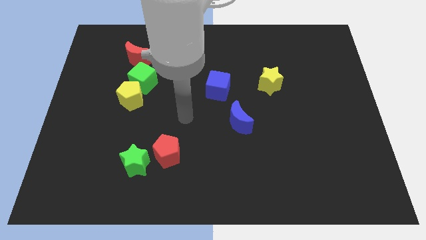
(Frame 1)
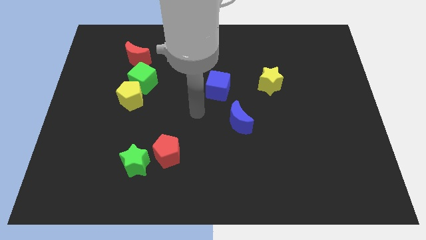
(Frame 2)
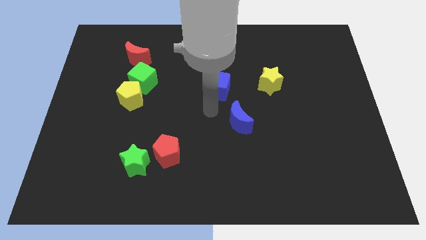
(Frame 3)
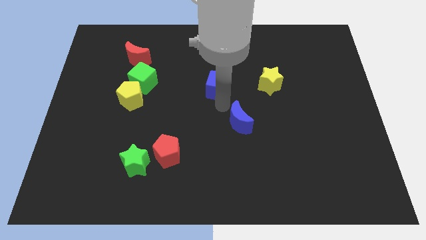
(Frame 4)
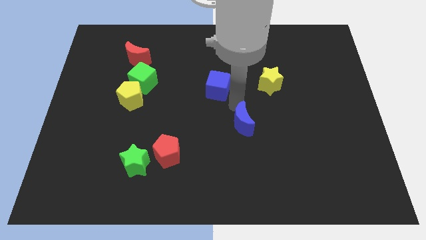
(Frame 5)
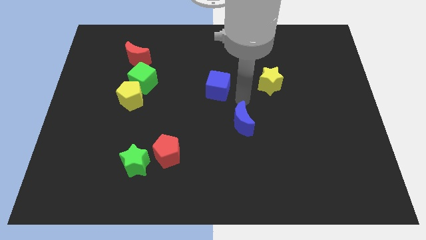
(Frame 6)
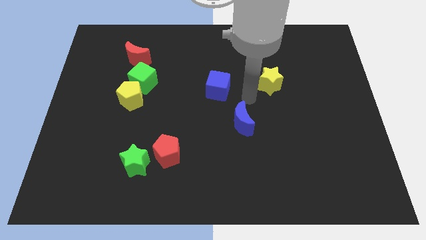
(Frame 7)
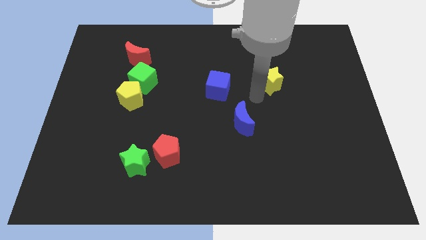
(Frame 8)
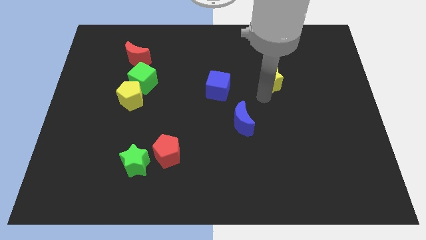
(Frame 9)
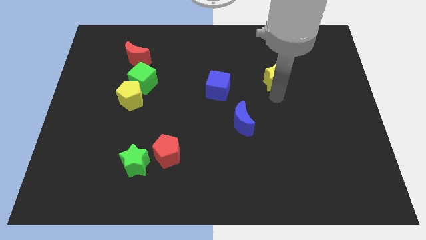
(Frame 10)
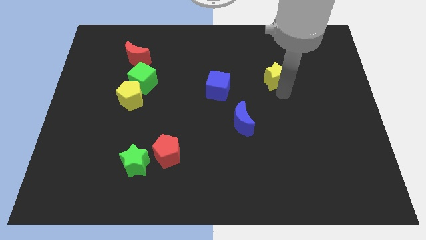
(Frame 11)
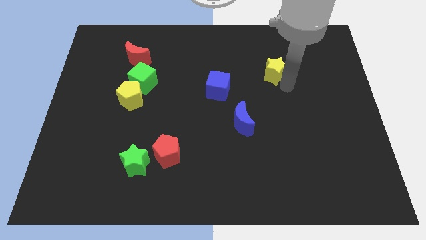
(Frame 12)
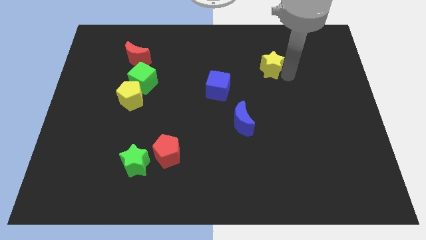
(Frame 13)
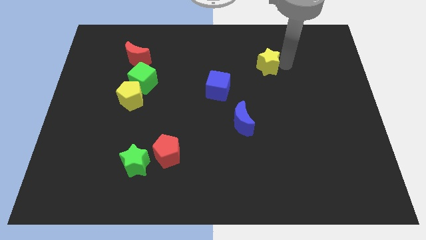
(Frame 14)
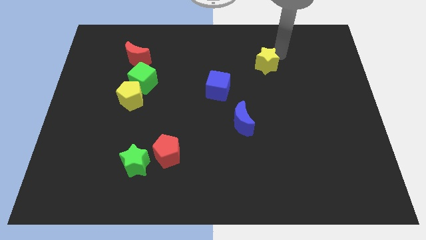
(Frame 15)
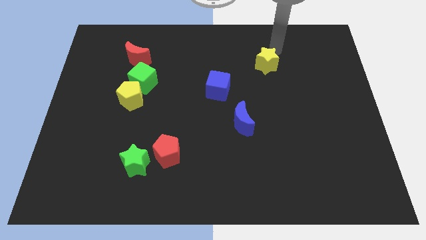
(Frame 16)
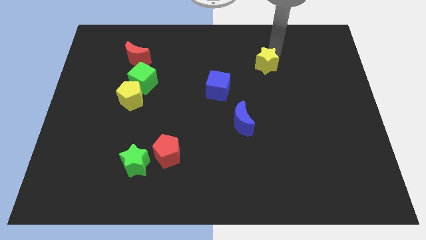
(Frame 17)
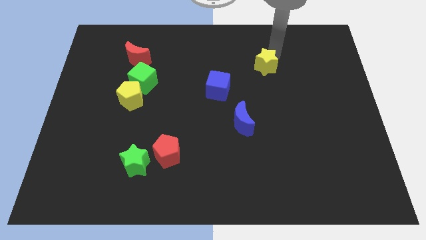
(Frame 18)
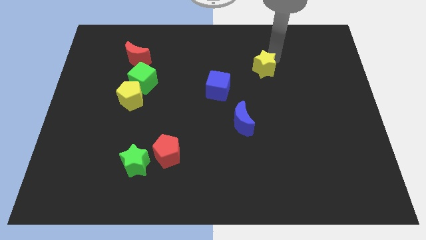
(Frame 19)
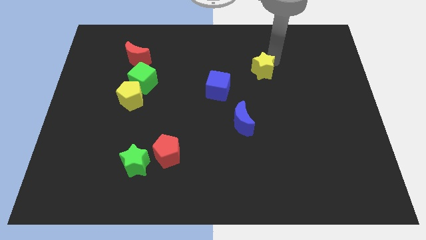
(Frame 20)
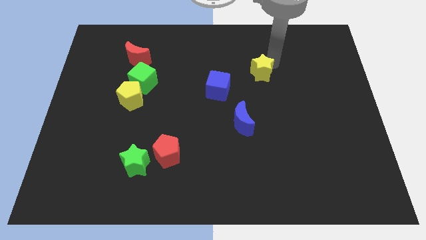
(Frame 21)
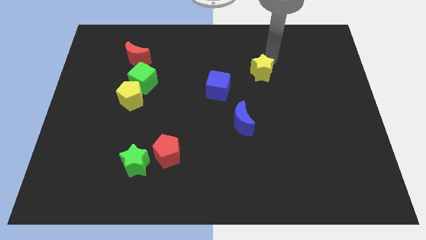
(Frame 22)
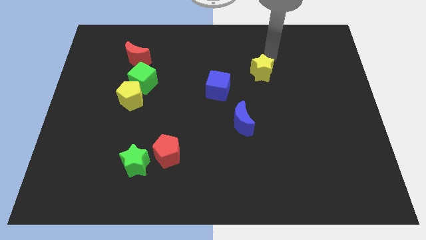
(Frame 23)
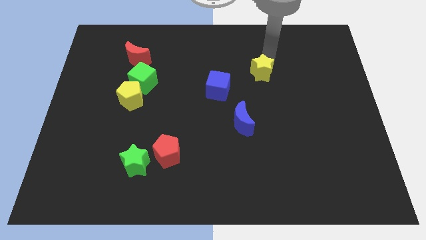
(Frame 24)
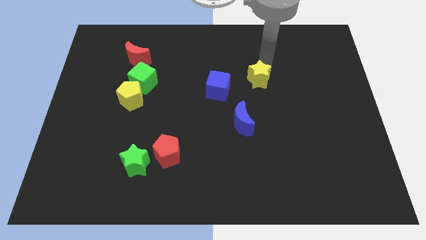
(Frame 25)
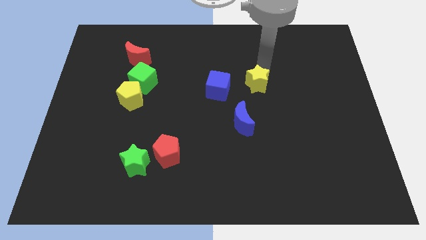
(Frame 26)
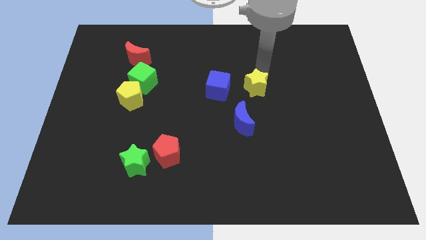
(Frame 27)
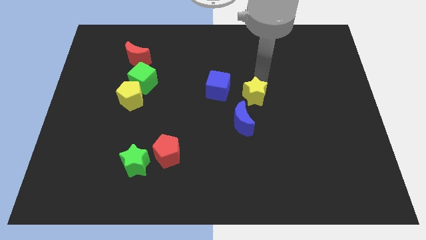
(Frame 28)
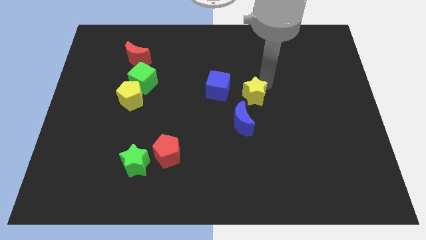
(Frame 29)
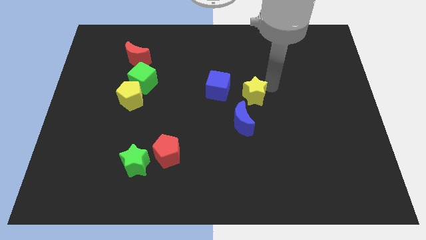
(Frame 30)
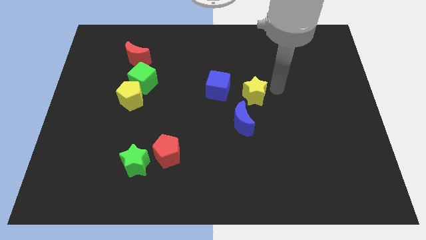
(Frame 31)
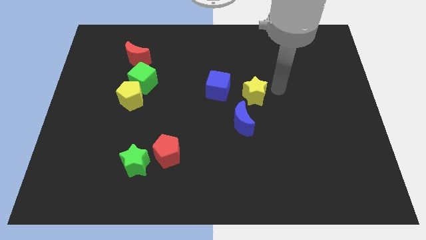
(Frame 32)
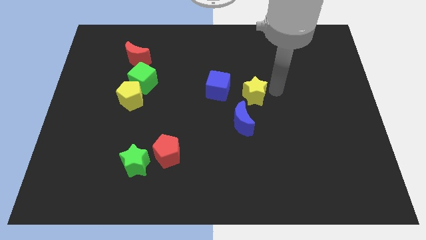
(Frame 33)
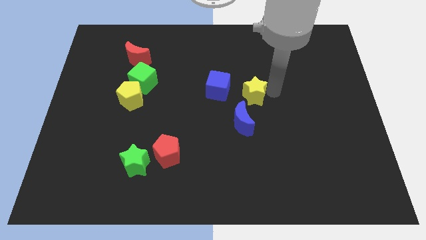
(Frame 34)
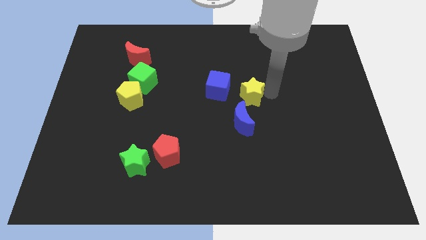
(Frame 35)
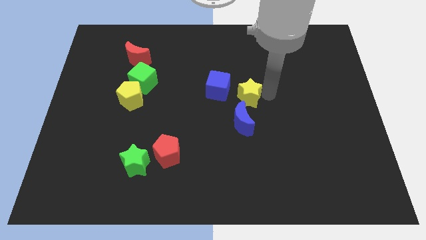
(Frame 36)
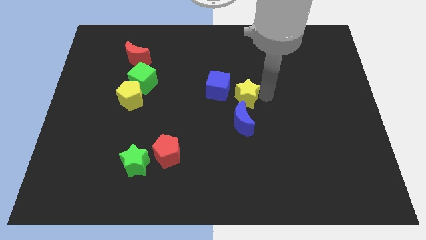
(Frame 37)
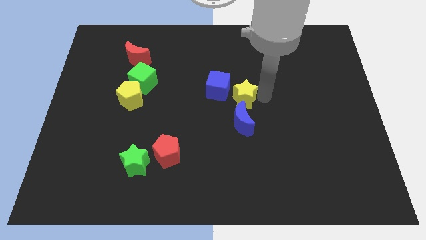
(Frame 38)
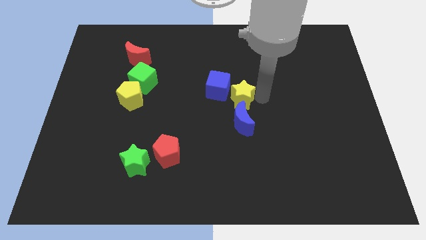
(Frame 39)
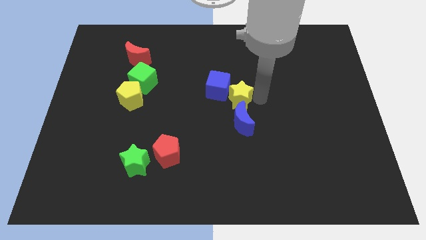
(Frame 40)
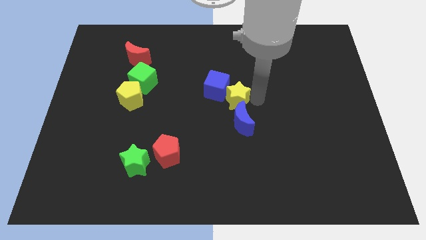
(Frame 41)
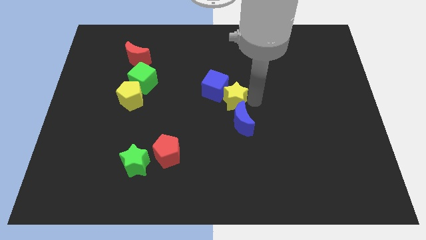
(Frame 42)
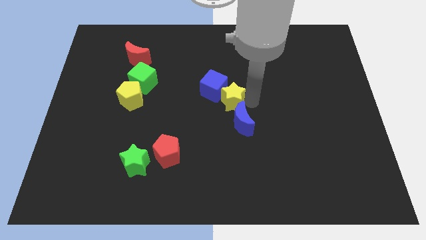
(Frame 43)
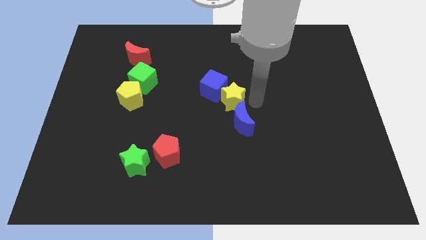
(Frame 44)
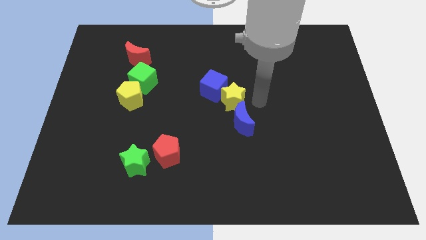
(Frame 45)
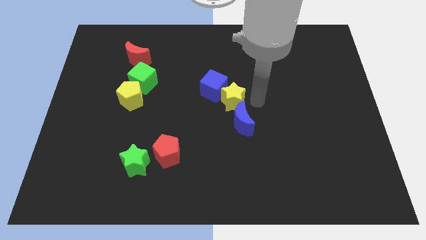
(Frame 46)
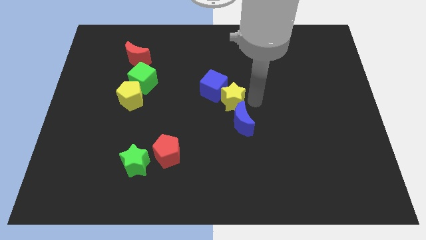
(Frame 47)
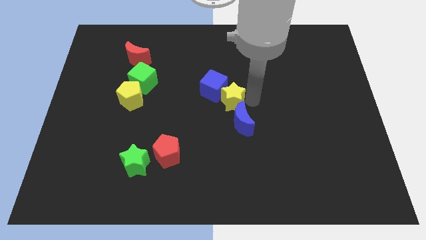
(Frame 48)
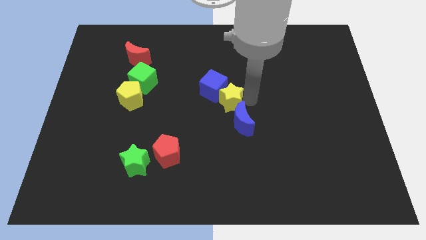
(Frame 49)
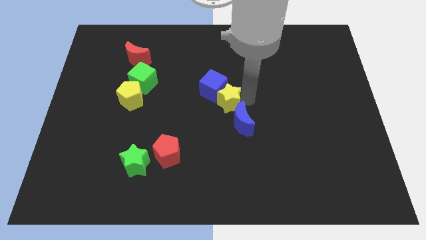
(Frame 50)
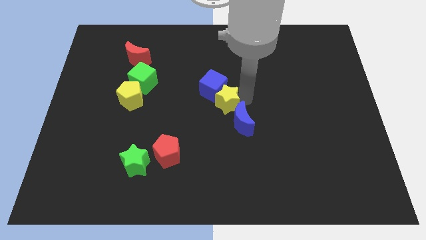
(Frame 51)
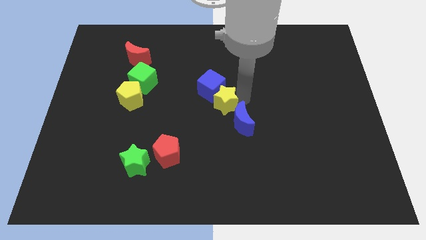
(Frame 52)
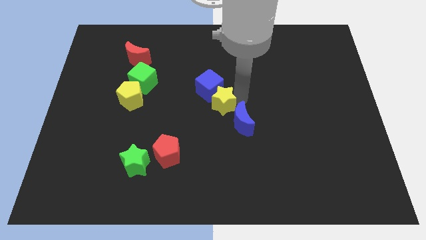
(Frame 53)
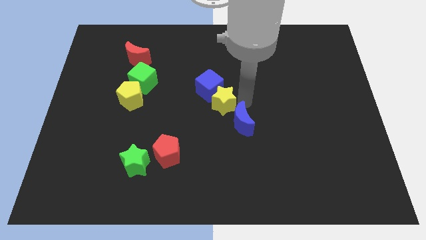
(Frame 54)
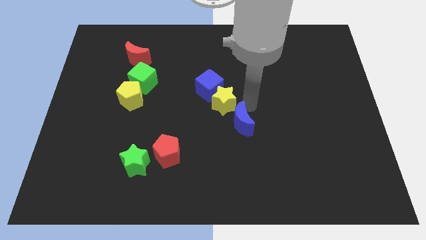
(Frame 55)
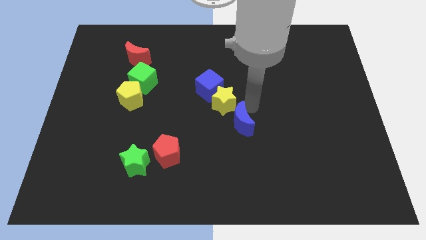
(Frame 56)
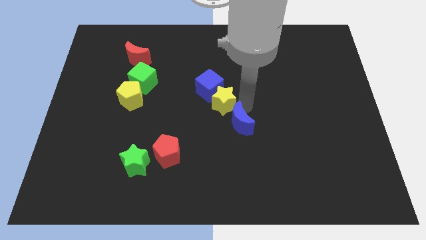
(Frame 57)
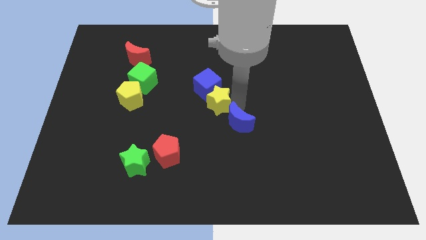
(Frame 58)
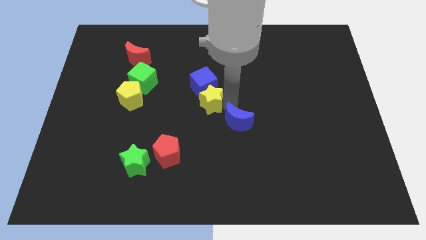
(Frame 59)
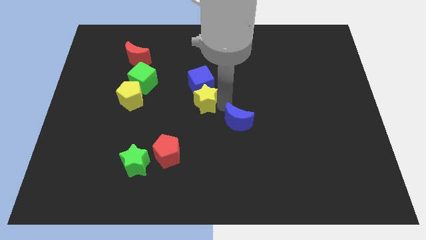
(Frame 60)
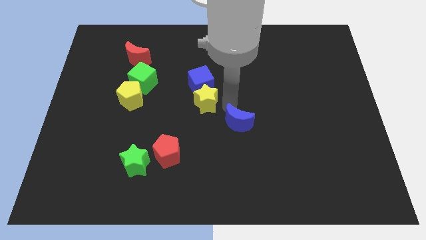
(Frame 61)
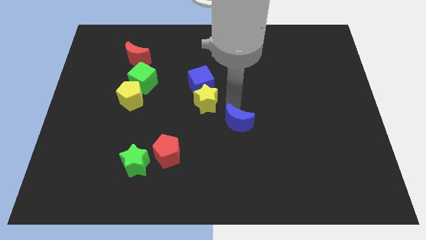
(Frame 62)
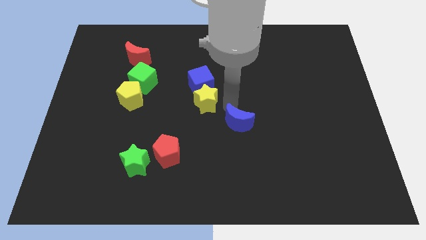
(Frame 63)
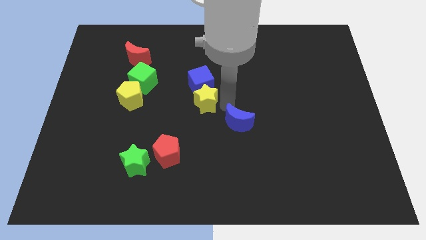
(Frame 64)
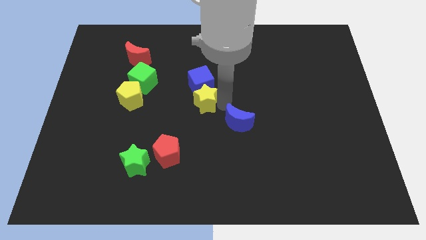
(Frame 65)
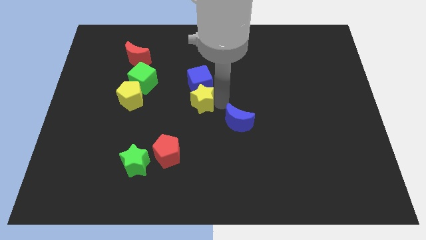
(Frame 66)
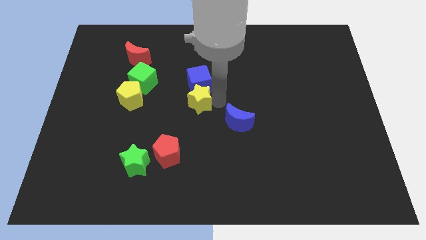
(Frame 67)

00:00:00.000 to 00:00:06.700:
push the yellow star right of the yellow pentagon
